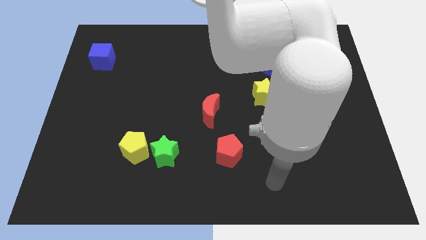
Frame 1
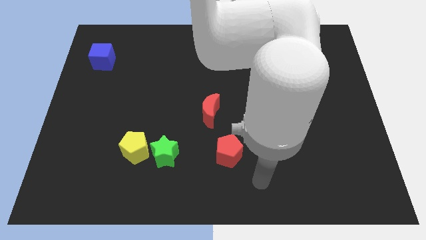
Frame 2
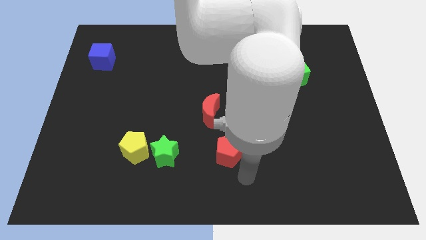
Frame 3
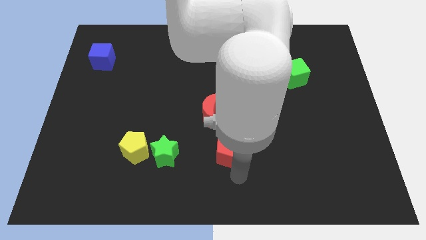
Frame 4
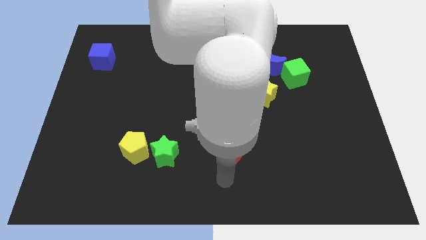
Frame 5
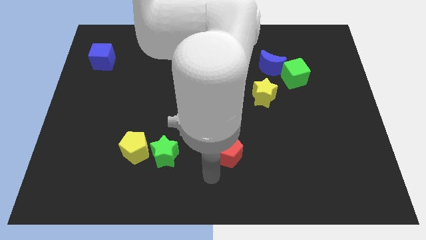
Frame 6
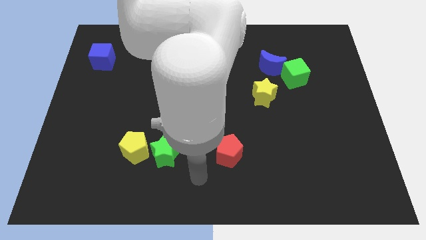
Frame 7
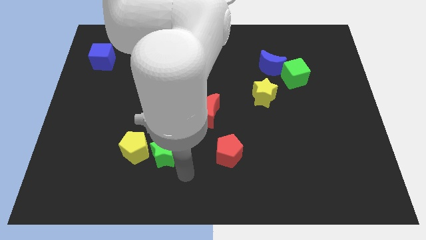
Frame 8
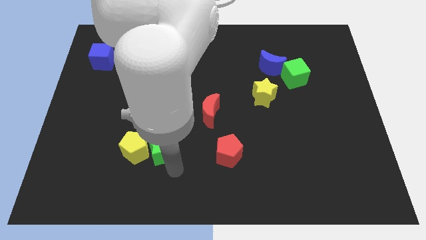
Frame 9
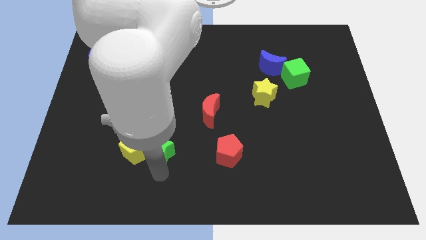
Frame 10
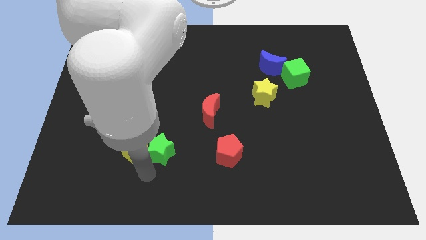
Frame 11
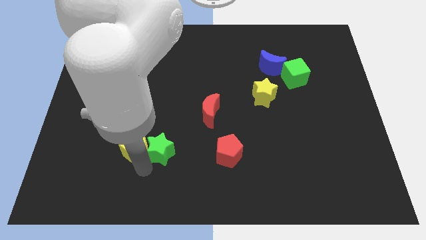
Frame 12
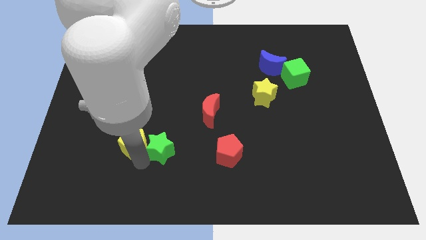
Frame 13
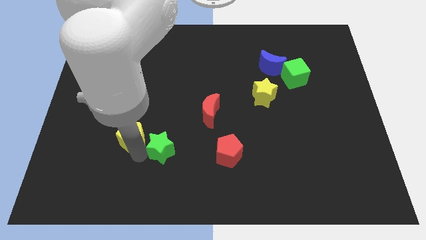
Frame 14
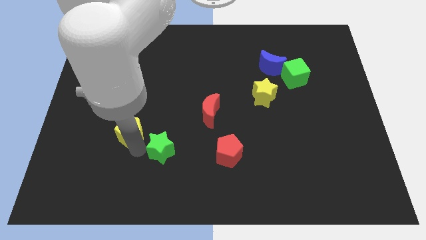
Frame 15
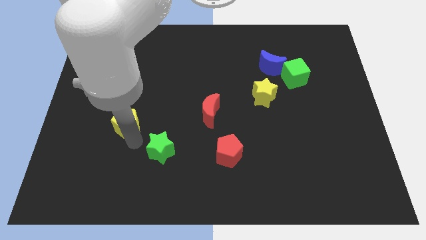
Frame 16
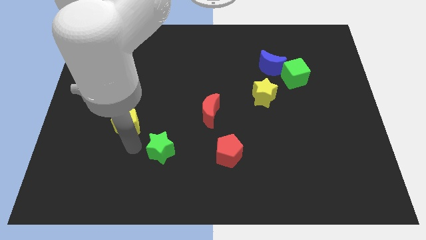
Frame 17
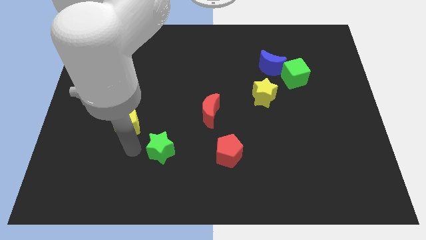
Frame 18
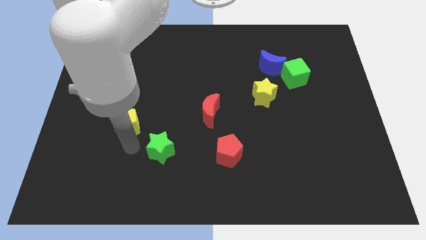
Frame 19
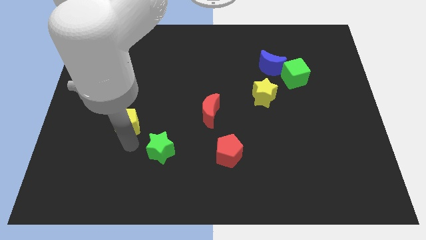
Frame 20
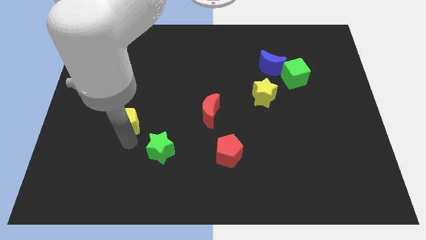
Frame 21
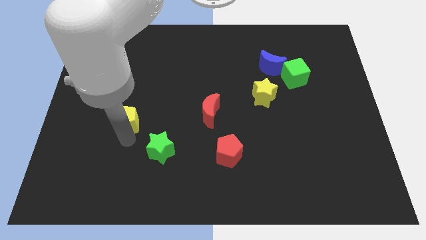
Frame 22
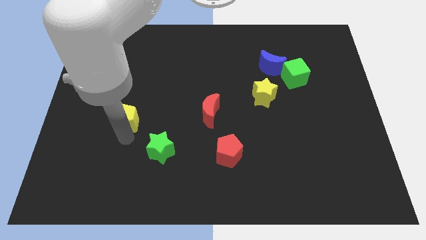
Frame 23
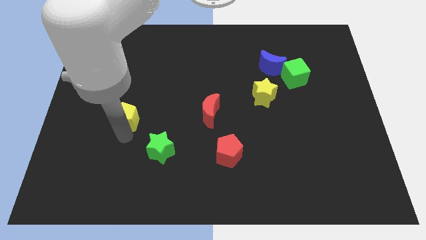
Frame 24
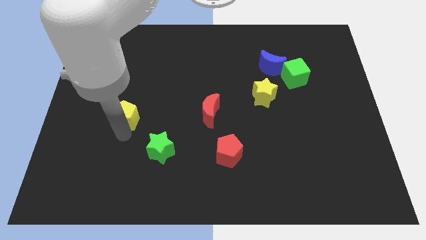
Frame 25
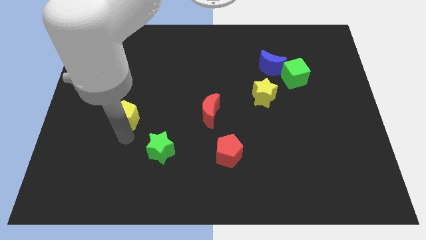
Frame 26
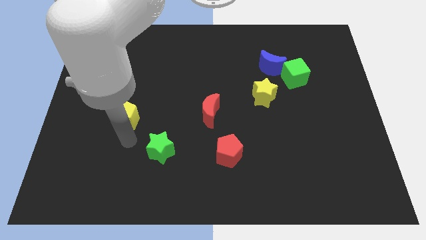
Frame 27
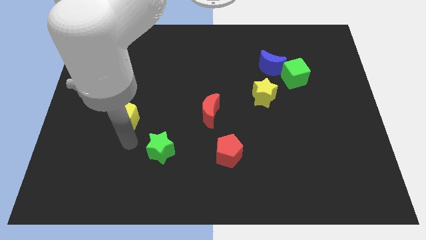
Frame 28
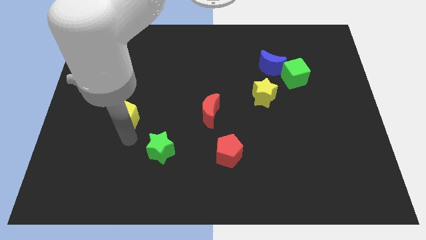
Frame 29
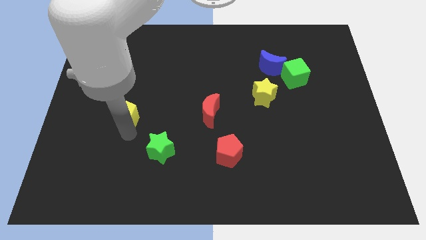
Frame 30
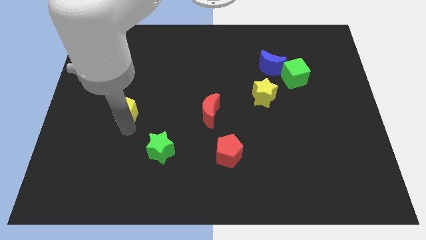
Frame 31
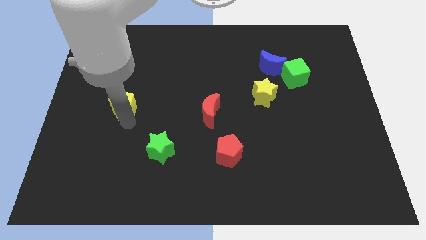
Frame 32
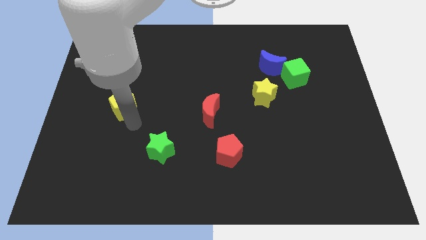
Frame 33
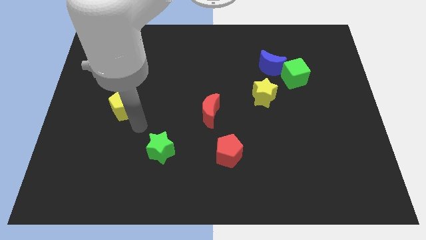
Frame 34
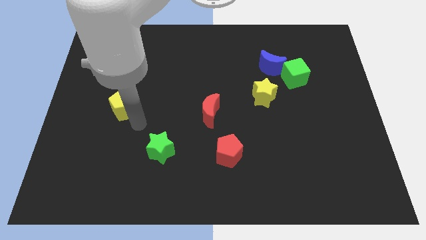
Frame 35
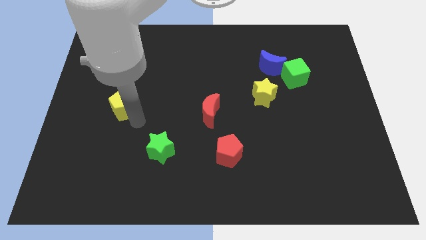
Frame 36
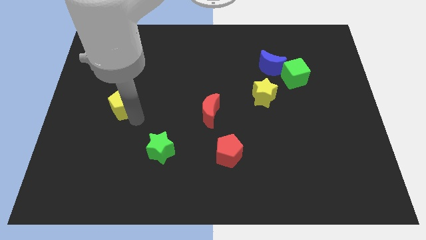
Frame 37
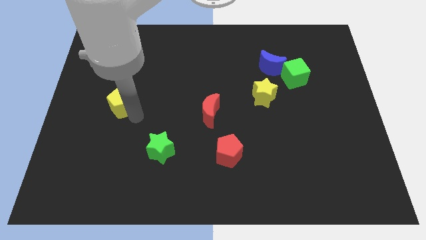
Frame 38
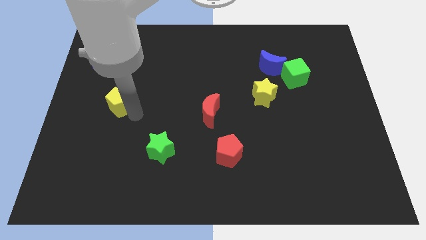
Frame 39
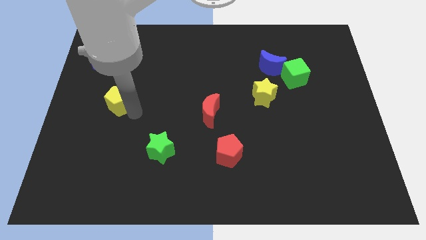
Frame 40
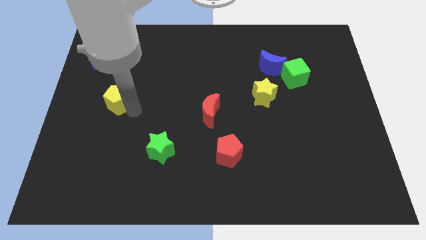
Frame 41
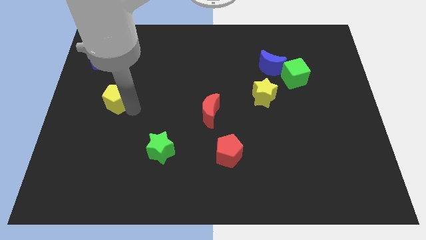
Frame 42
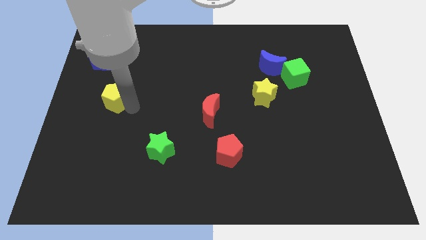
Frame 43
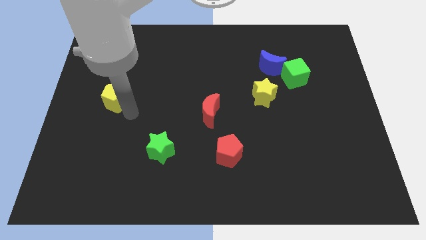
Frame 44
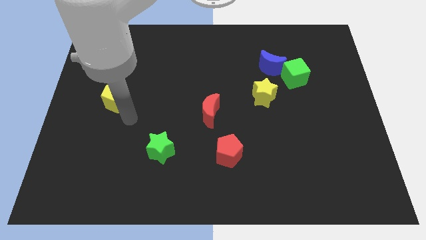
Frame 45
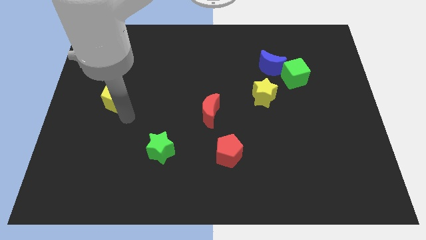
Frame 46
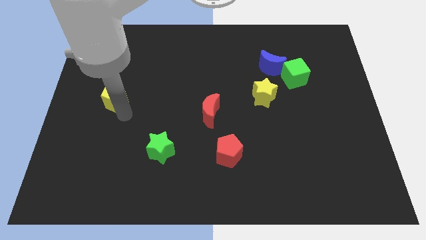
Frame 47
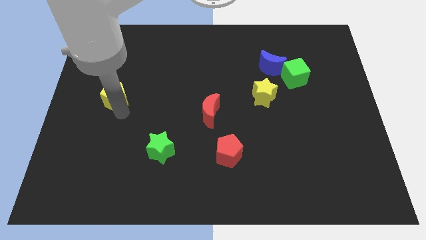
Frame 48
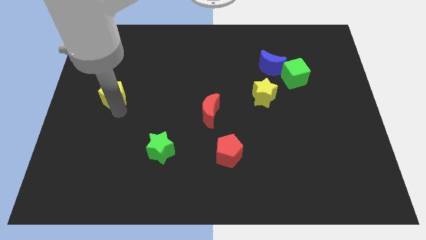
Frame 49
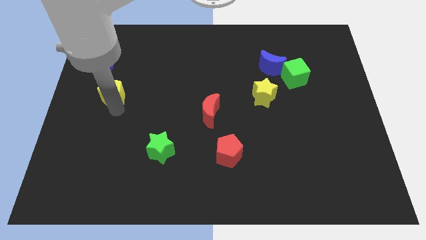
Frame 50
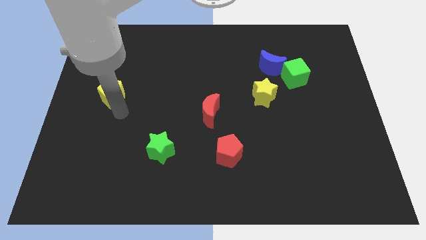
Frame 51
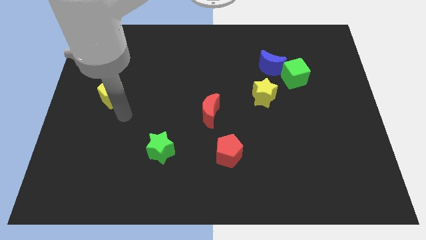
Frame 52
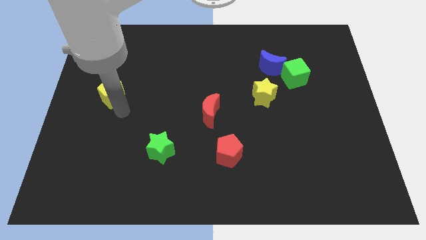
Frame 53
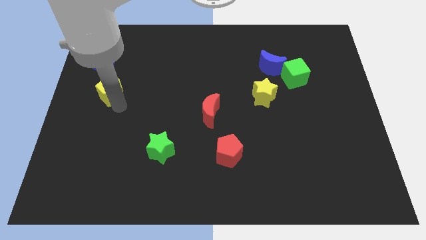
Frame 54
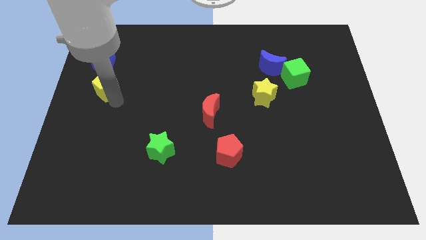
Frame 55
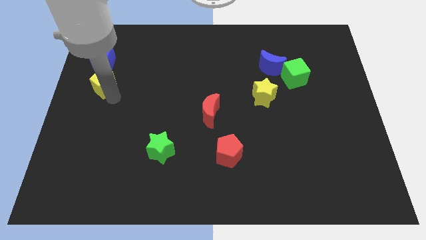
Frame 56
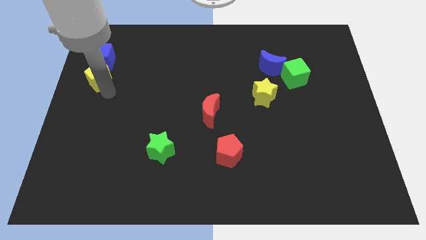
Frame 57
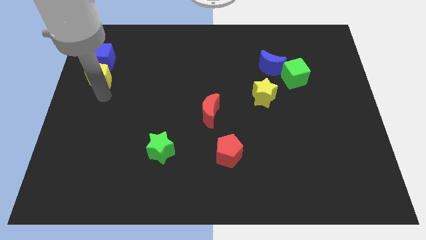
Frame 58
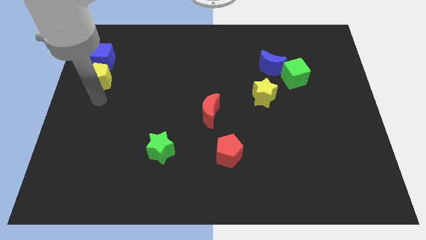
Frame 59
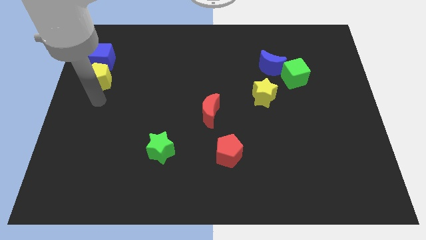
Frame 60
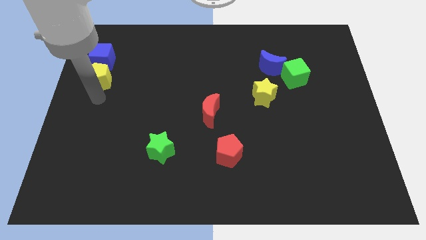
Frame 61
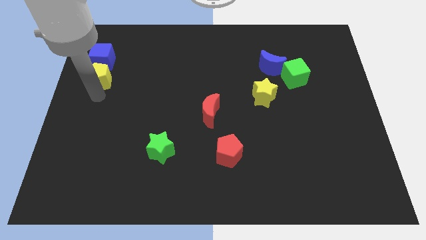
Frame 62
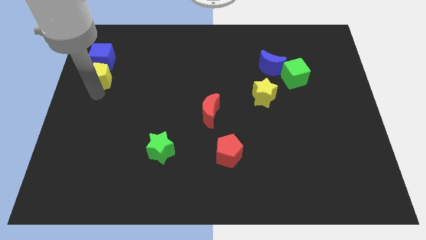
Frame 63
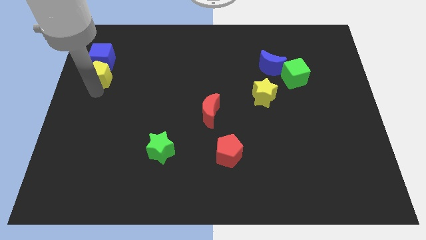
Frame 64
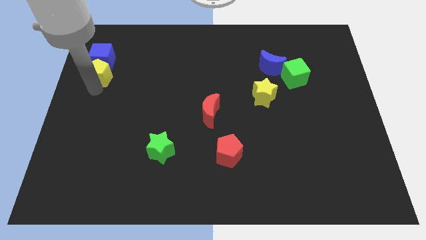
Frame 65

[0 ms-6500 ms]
push the yellow pentagon close to the blue cube

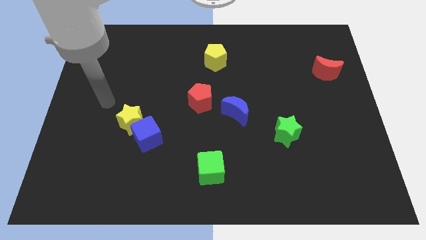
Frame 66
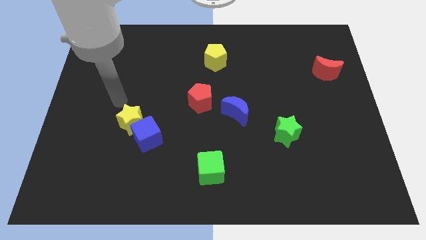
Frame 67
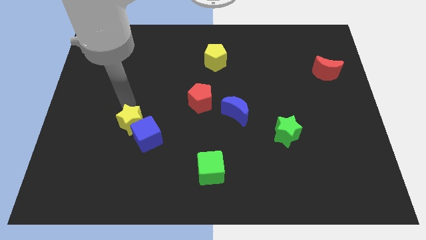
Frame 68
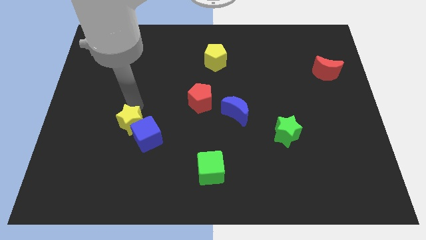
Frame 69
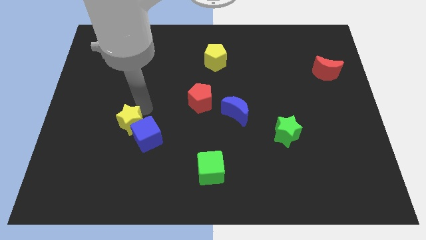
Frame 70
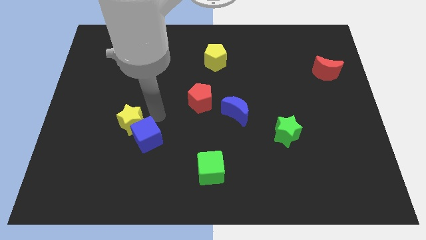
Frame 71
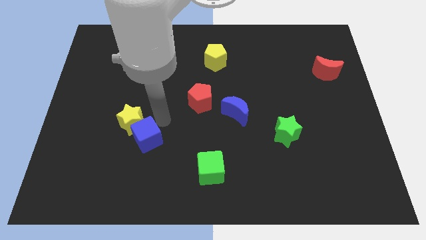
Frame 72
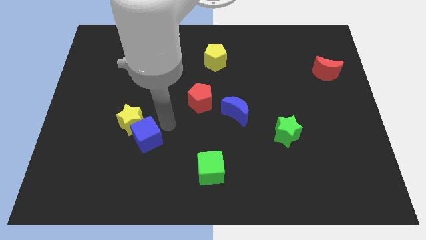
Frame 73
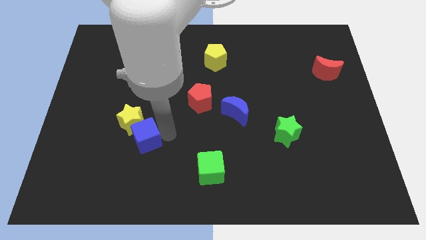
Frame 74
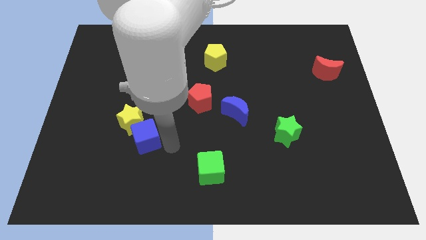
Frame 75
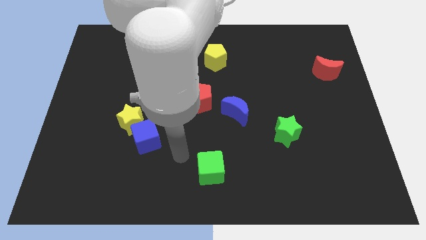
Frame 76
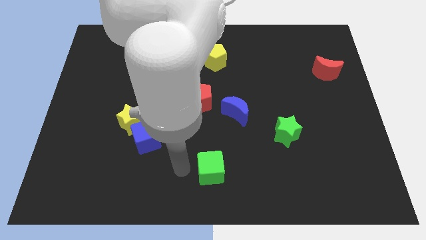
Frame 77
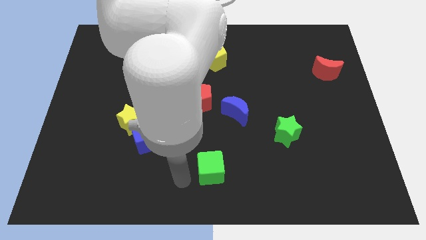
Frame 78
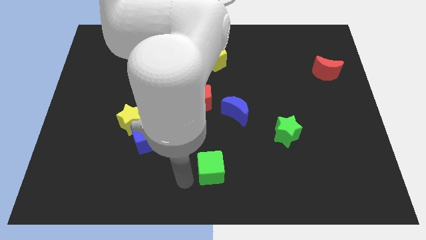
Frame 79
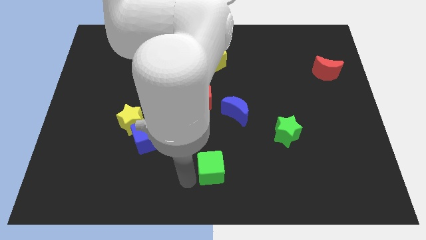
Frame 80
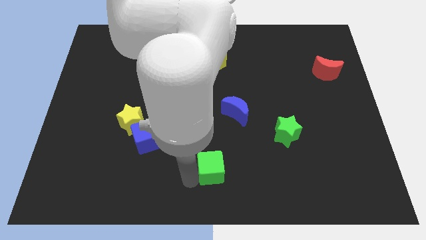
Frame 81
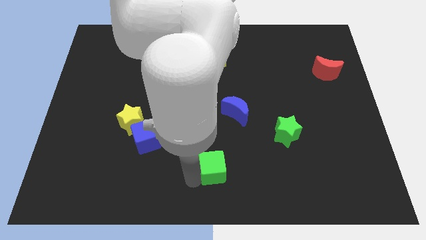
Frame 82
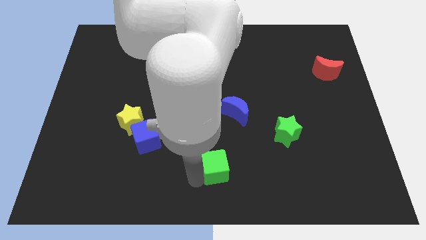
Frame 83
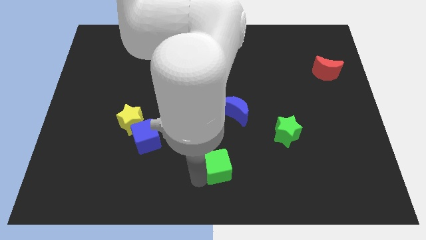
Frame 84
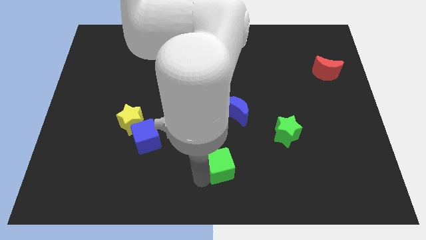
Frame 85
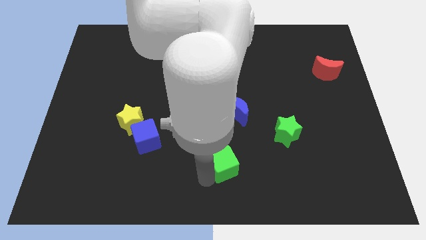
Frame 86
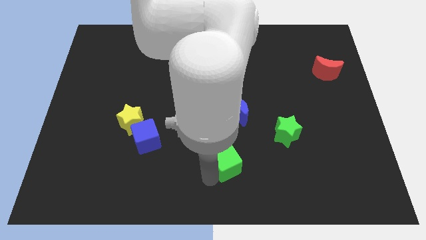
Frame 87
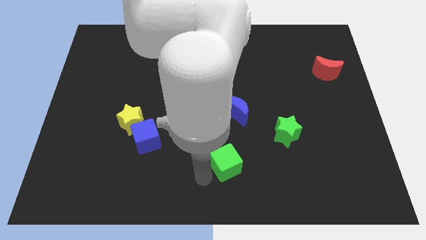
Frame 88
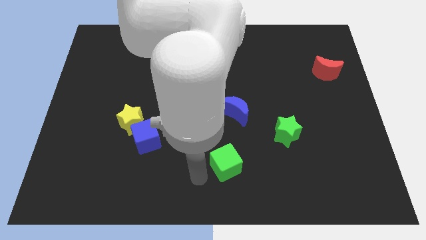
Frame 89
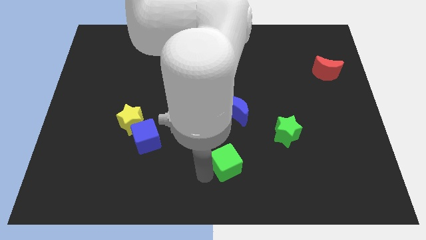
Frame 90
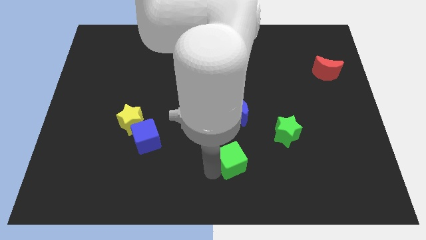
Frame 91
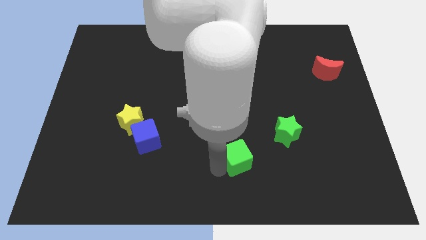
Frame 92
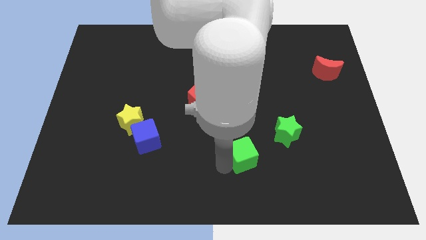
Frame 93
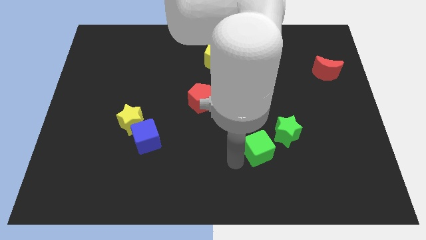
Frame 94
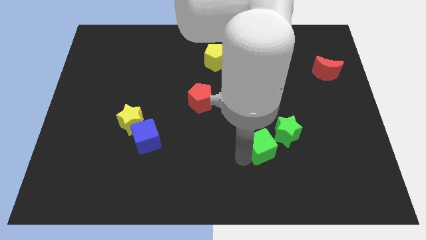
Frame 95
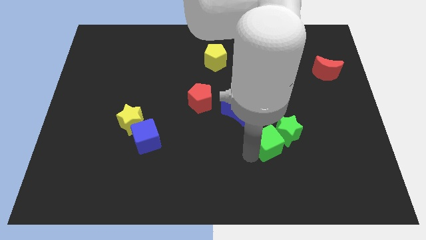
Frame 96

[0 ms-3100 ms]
push the green cube close to the green star
